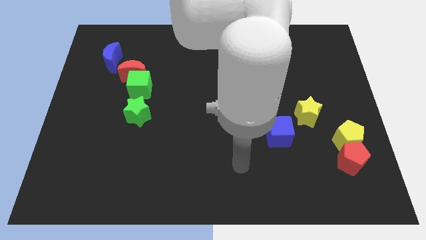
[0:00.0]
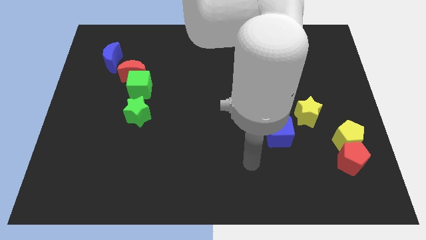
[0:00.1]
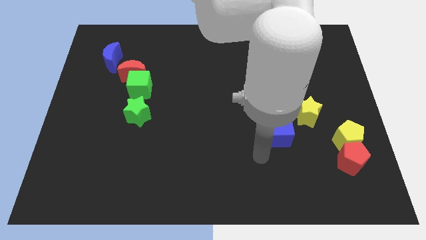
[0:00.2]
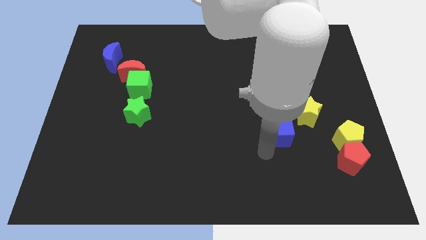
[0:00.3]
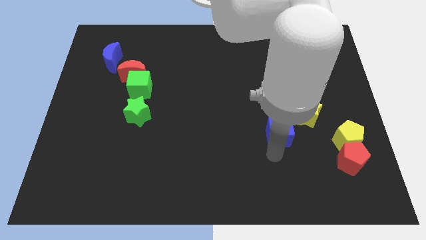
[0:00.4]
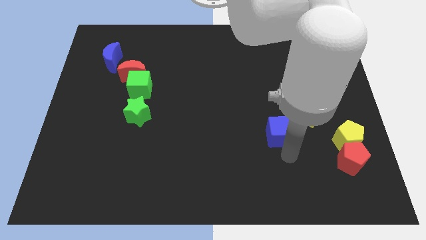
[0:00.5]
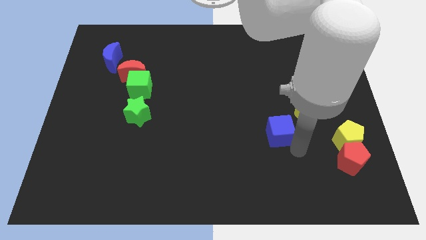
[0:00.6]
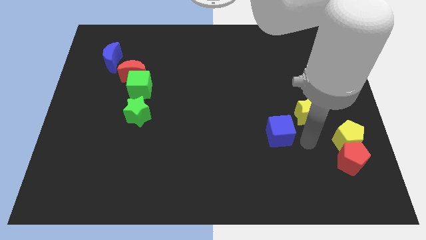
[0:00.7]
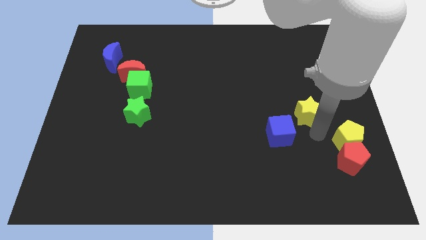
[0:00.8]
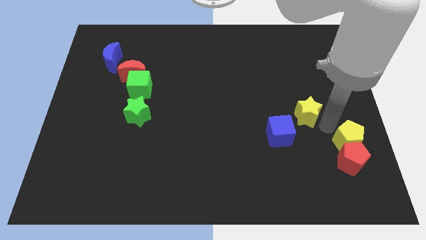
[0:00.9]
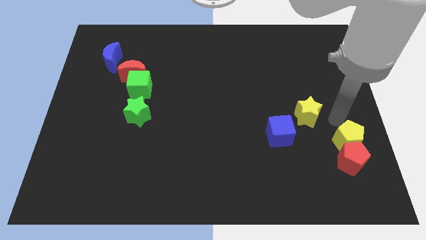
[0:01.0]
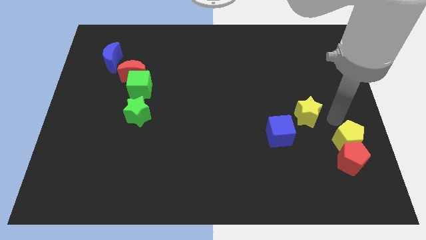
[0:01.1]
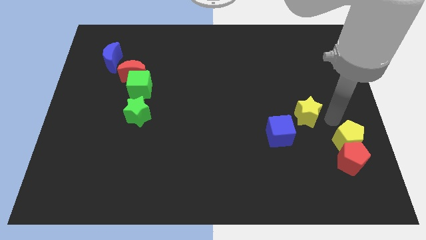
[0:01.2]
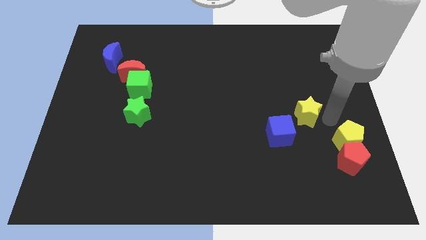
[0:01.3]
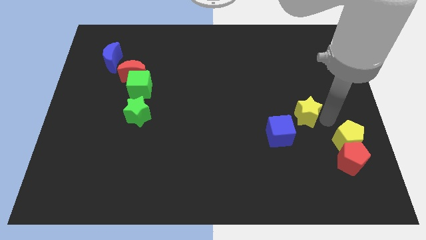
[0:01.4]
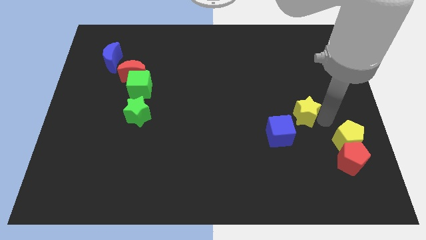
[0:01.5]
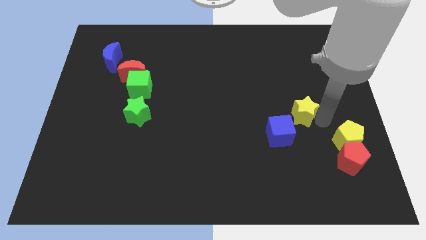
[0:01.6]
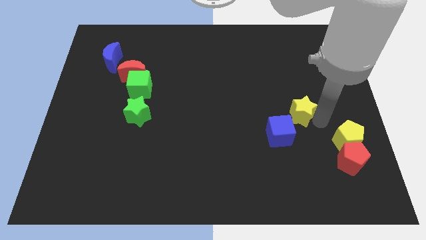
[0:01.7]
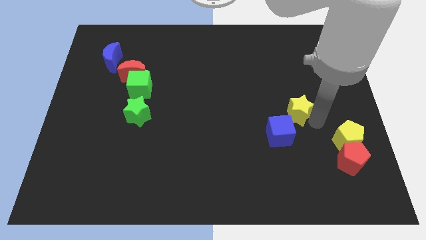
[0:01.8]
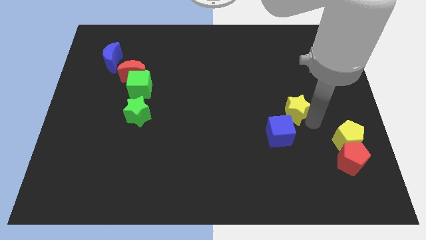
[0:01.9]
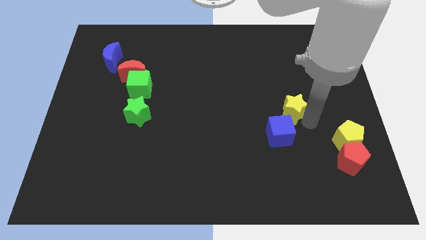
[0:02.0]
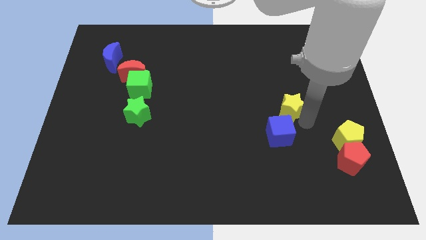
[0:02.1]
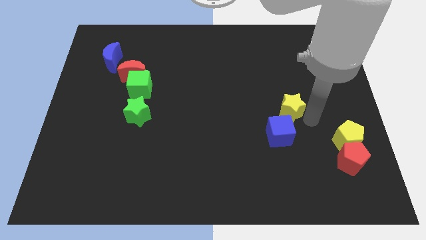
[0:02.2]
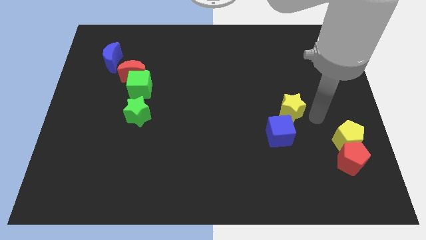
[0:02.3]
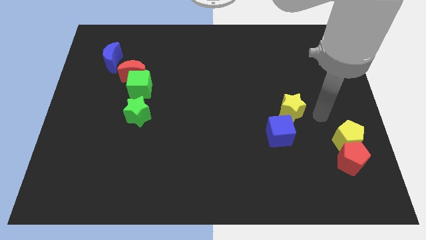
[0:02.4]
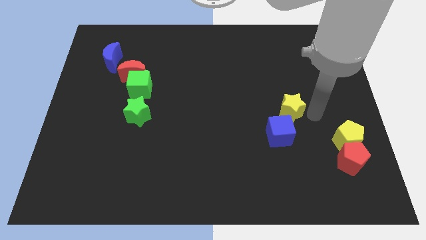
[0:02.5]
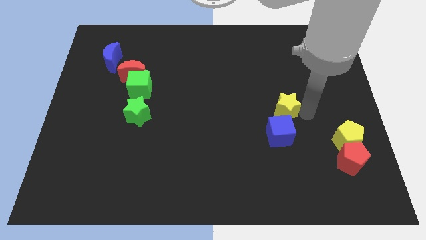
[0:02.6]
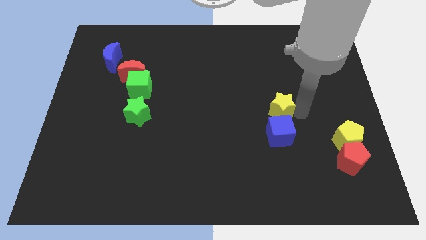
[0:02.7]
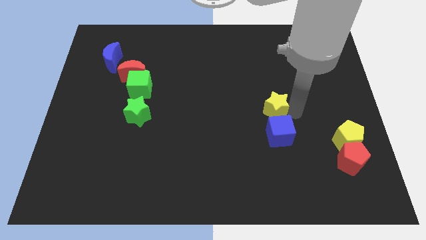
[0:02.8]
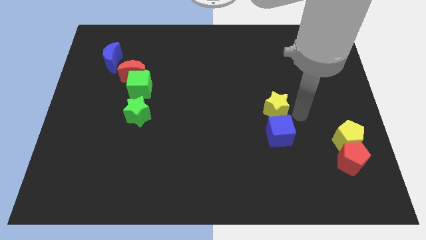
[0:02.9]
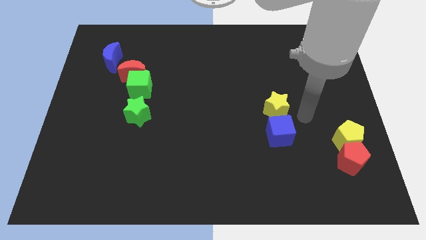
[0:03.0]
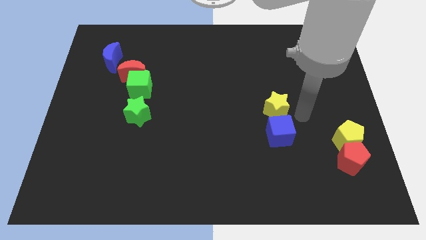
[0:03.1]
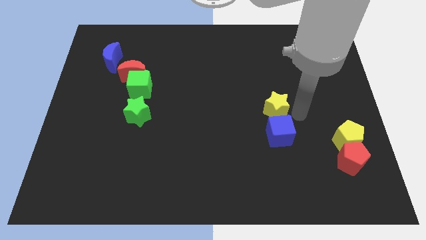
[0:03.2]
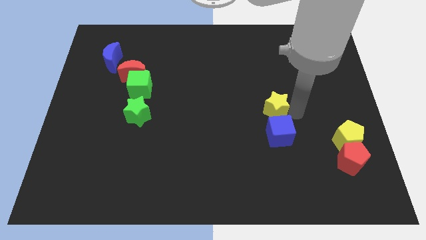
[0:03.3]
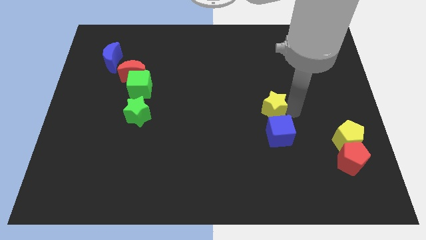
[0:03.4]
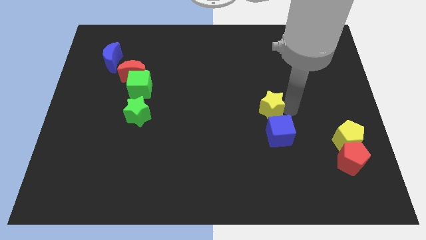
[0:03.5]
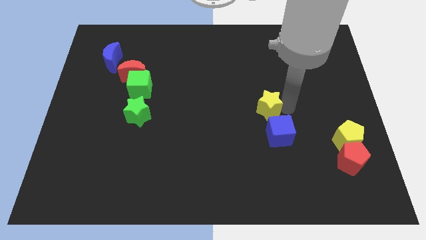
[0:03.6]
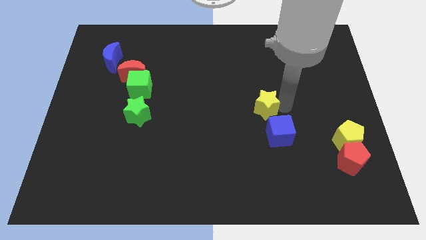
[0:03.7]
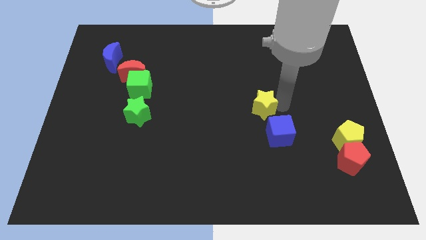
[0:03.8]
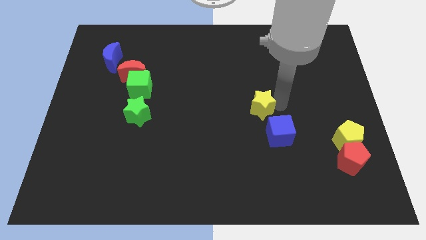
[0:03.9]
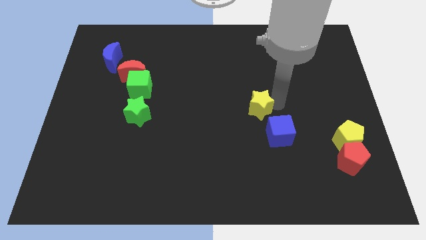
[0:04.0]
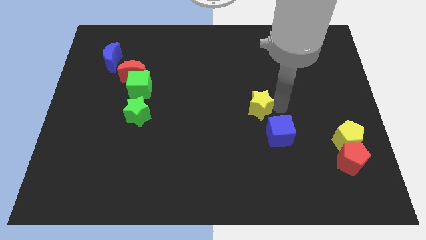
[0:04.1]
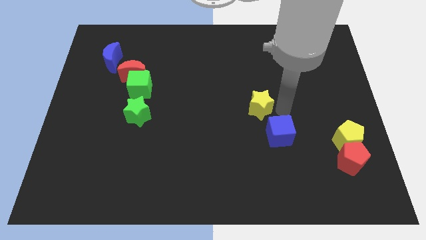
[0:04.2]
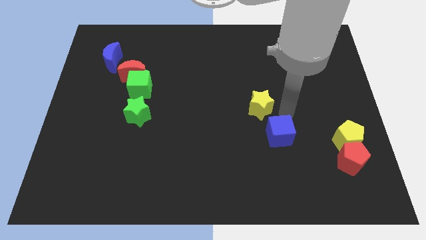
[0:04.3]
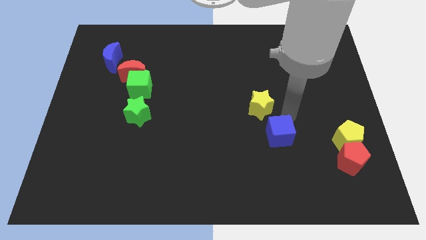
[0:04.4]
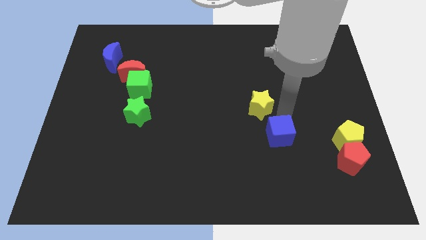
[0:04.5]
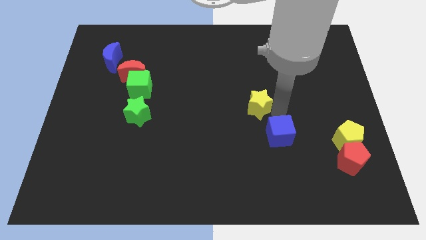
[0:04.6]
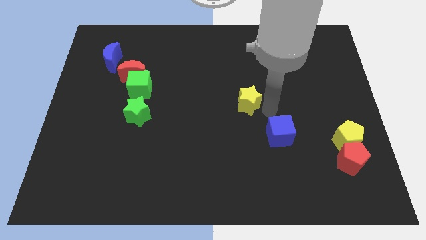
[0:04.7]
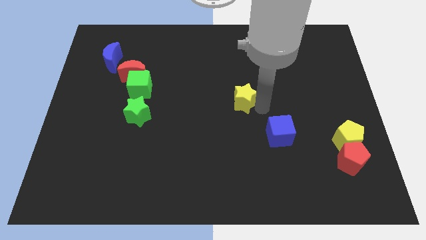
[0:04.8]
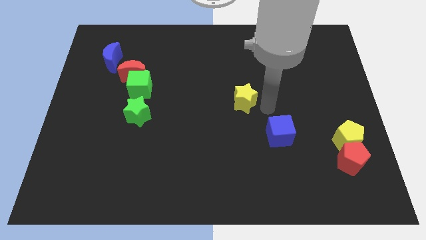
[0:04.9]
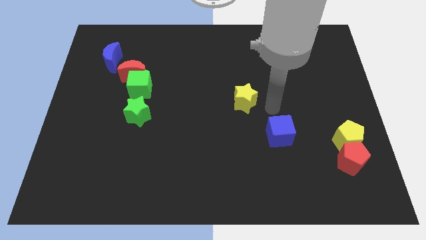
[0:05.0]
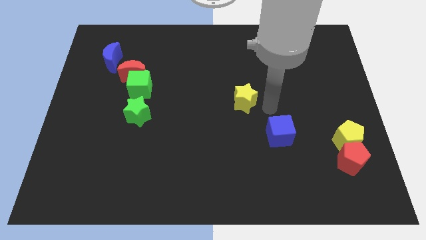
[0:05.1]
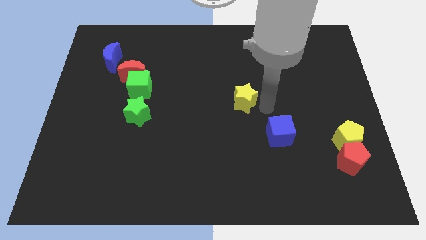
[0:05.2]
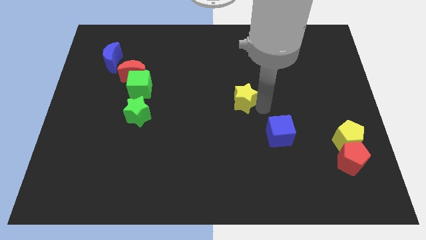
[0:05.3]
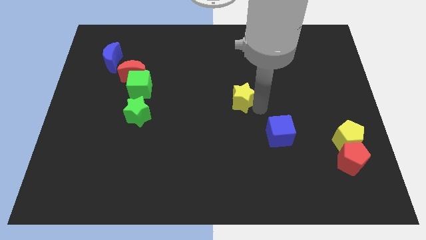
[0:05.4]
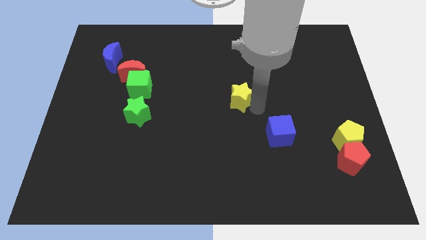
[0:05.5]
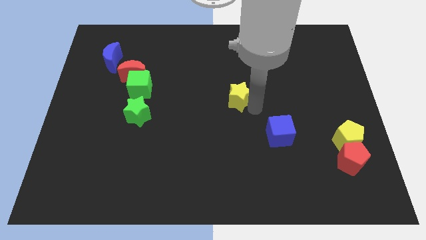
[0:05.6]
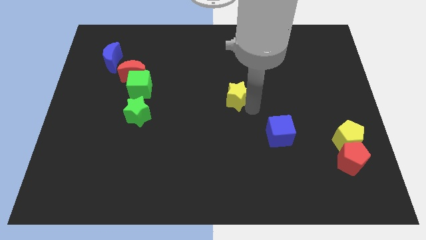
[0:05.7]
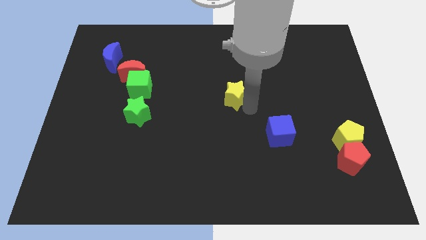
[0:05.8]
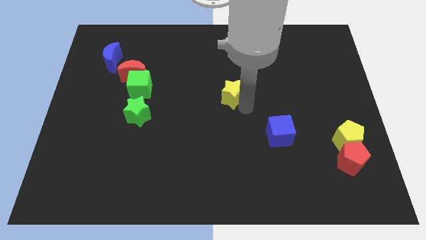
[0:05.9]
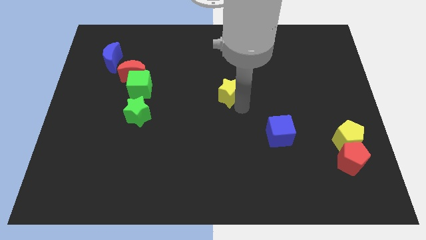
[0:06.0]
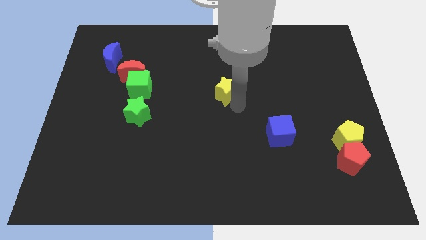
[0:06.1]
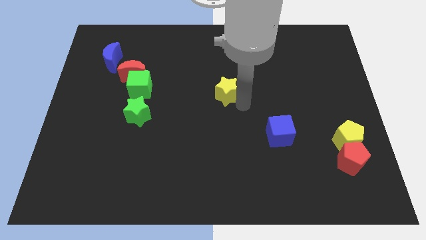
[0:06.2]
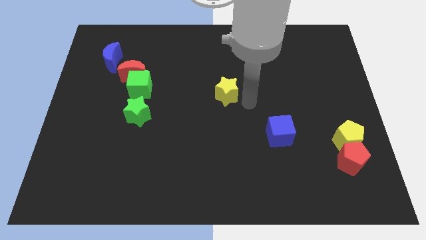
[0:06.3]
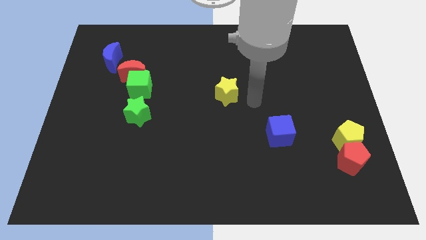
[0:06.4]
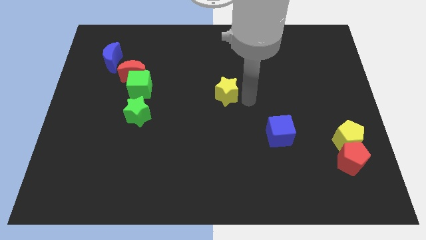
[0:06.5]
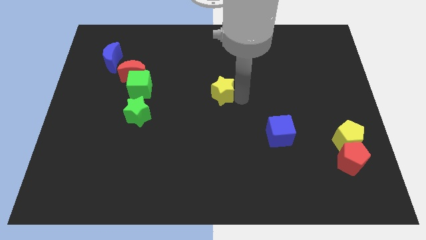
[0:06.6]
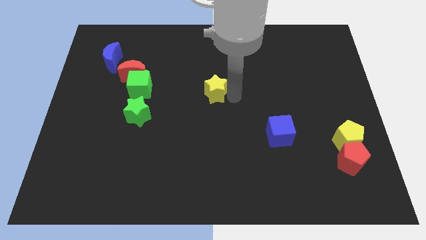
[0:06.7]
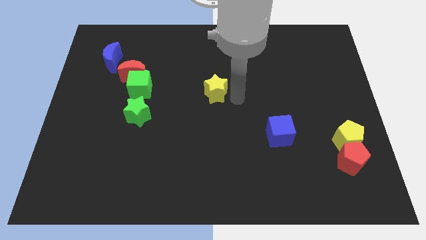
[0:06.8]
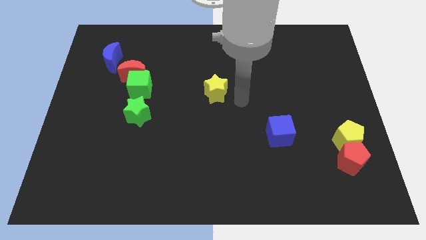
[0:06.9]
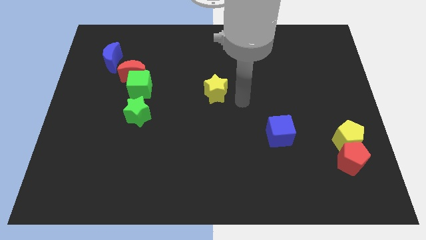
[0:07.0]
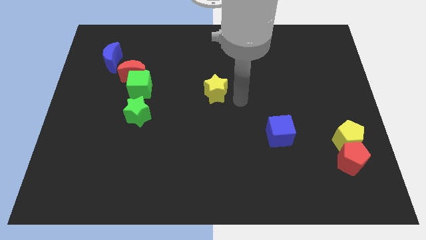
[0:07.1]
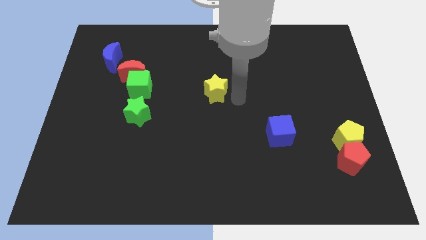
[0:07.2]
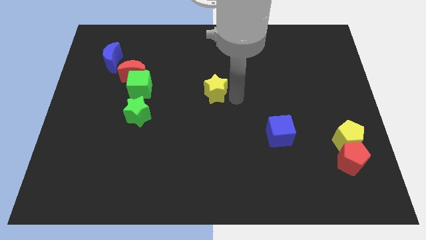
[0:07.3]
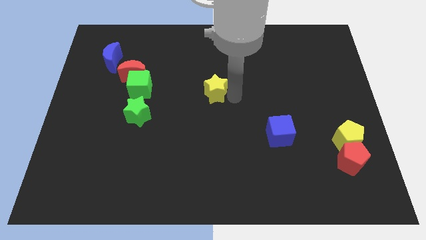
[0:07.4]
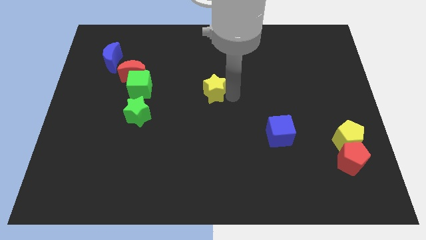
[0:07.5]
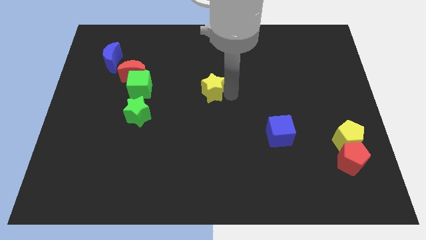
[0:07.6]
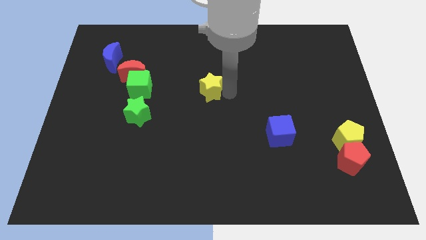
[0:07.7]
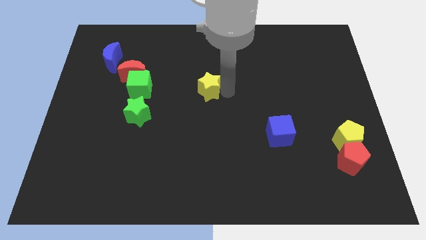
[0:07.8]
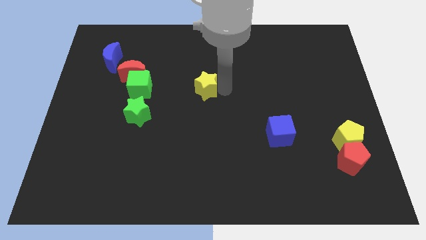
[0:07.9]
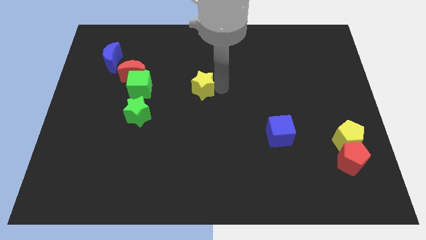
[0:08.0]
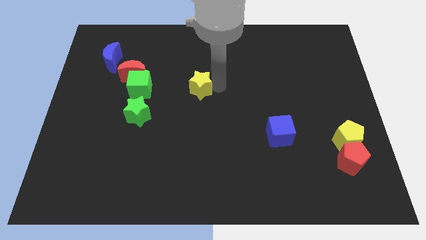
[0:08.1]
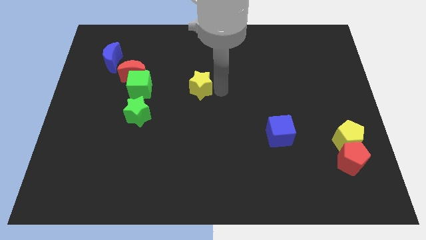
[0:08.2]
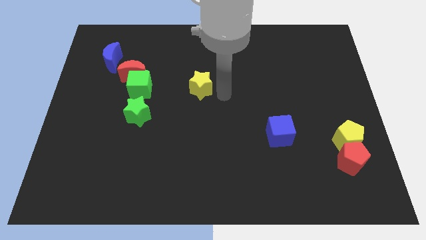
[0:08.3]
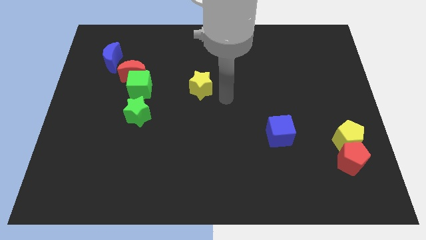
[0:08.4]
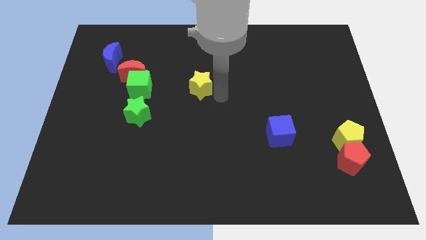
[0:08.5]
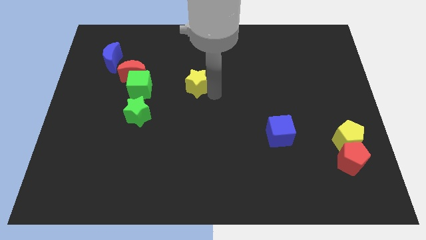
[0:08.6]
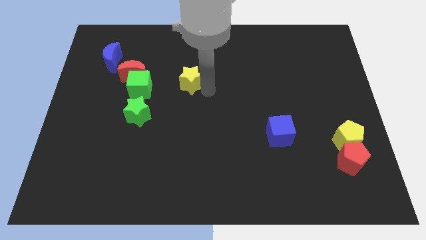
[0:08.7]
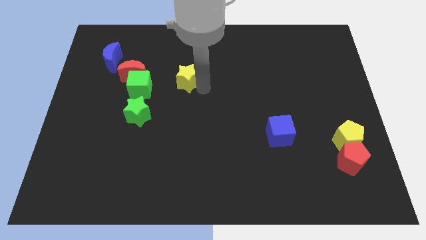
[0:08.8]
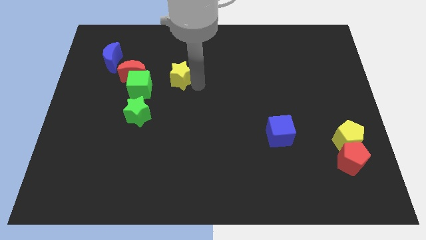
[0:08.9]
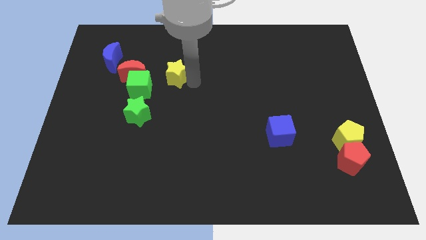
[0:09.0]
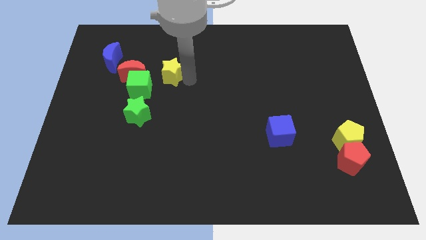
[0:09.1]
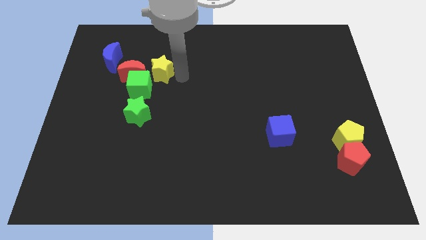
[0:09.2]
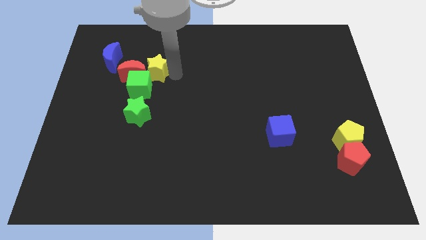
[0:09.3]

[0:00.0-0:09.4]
slide the yellow star to the red moon
